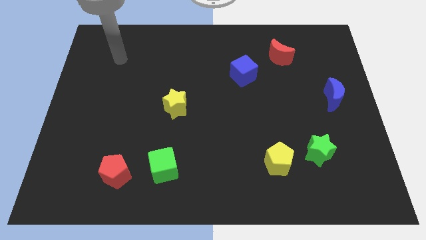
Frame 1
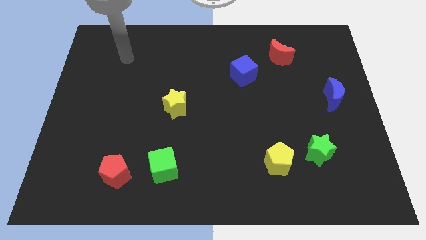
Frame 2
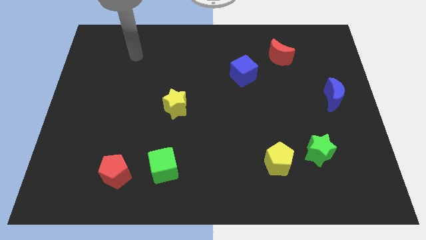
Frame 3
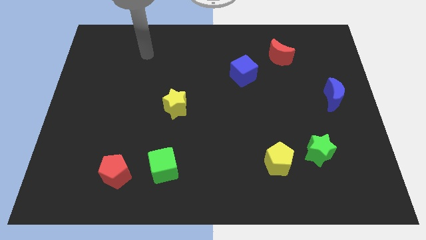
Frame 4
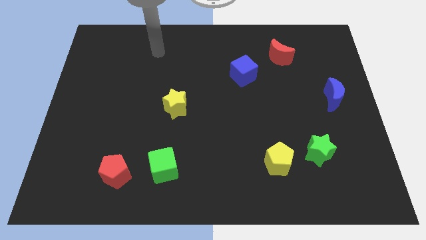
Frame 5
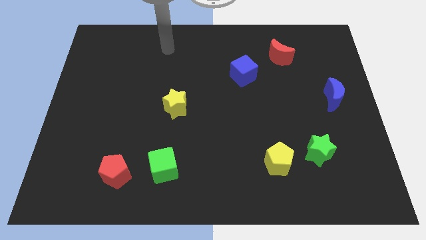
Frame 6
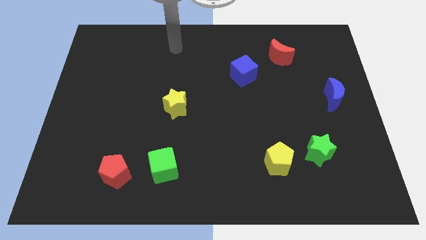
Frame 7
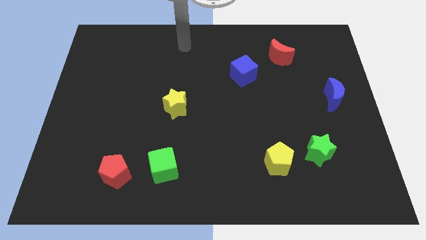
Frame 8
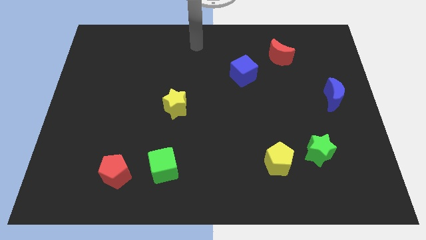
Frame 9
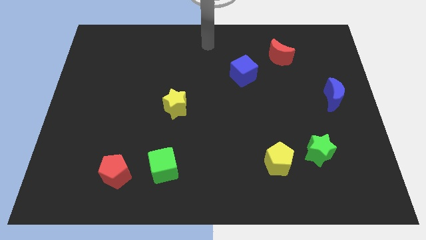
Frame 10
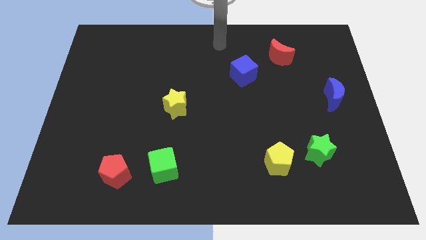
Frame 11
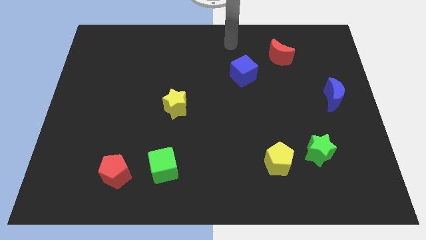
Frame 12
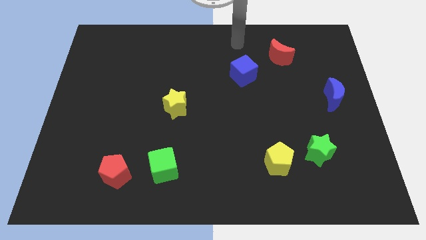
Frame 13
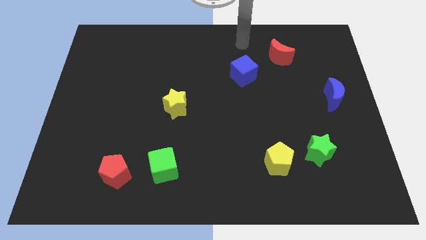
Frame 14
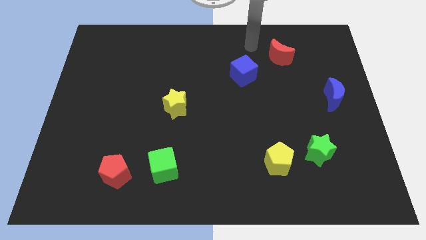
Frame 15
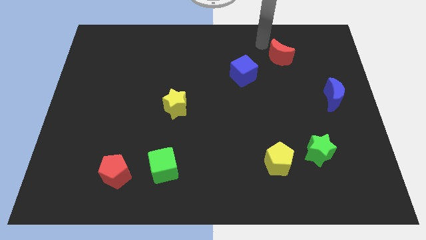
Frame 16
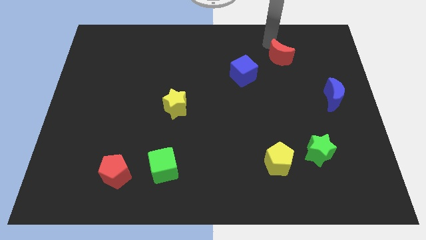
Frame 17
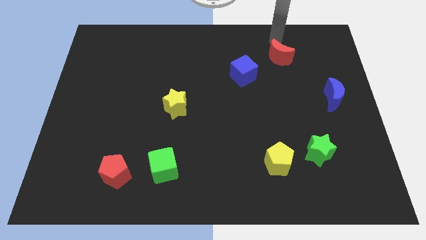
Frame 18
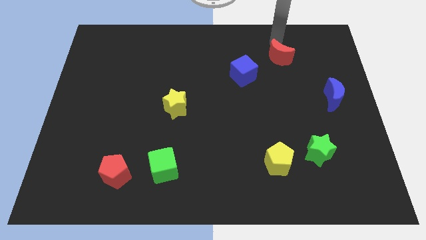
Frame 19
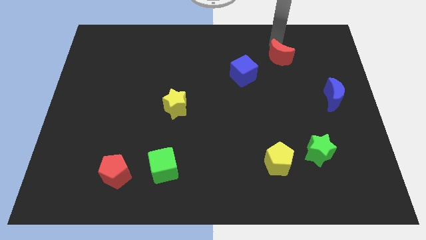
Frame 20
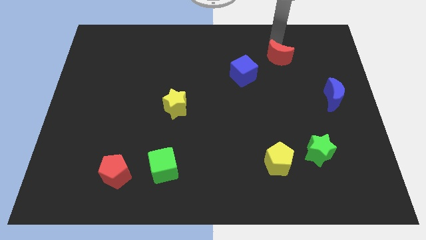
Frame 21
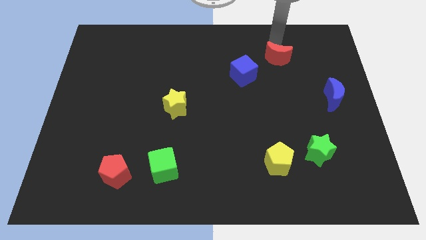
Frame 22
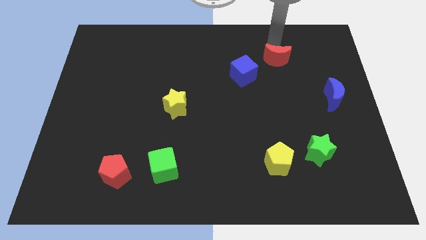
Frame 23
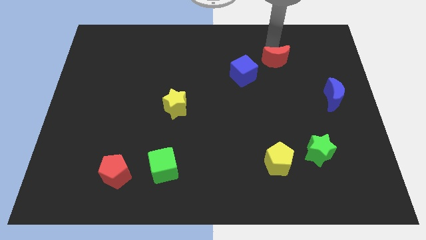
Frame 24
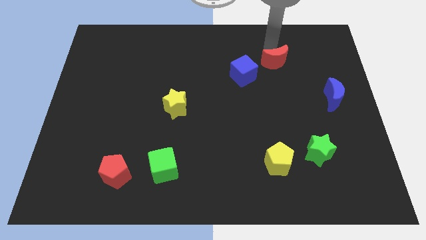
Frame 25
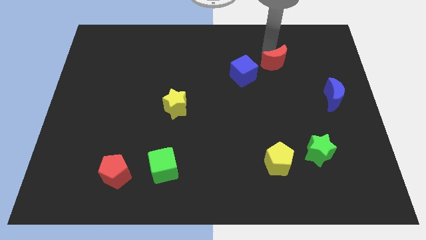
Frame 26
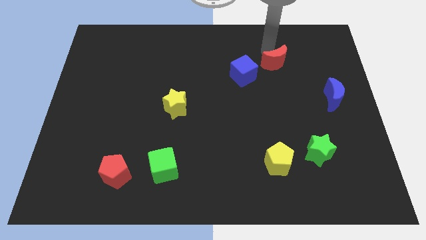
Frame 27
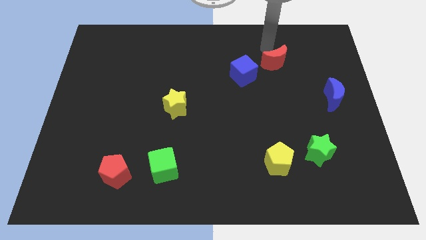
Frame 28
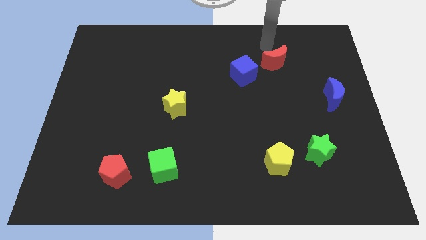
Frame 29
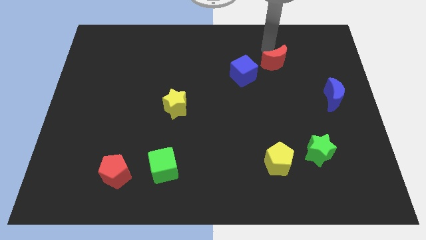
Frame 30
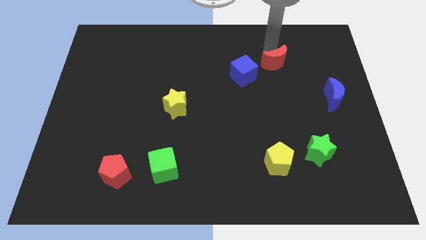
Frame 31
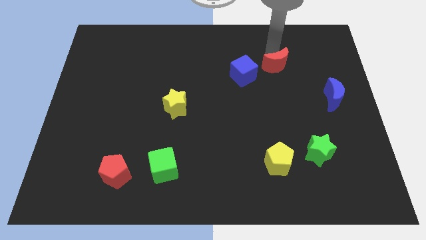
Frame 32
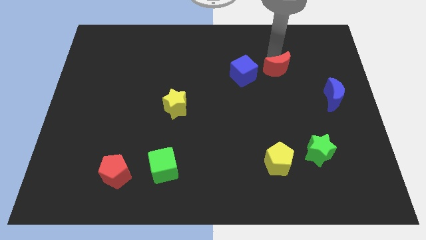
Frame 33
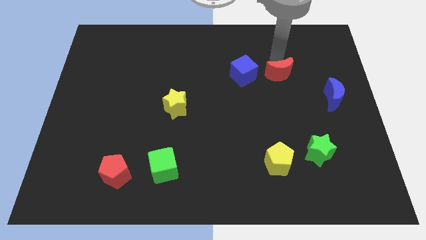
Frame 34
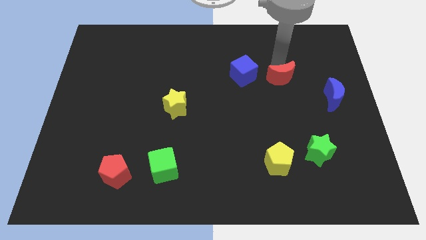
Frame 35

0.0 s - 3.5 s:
slightly move the red moon downwards

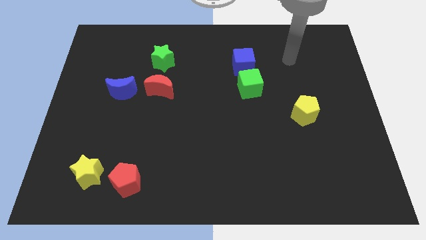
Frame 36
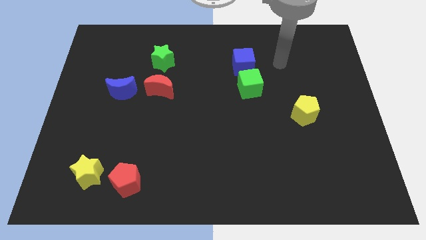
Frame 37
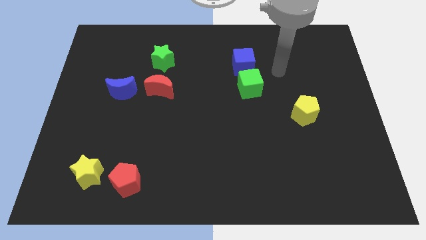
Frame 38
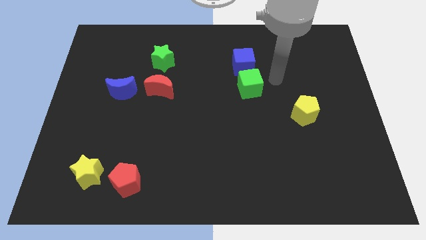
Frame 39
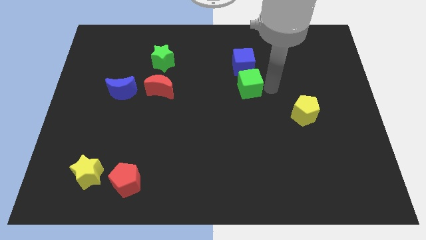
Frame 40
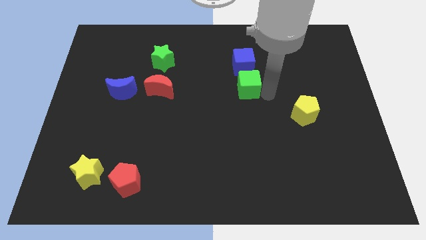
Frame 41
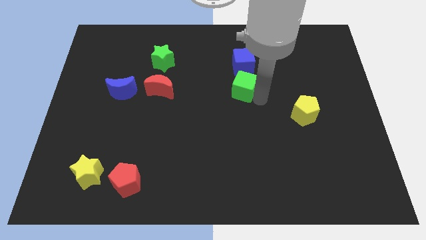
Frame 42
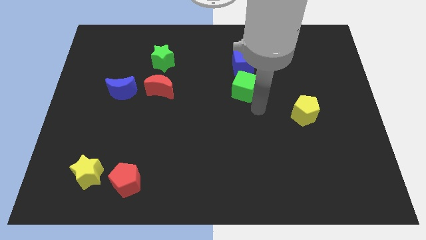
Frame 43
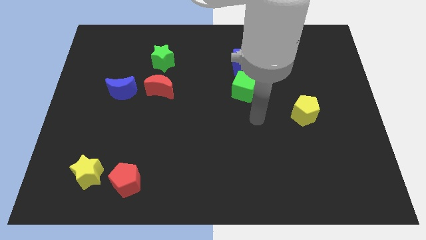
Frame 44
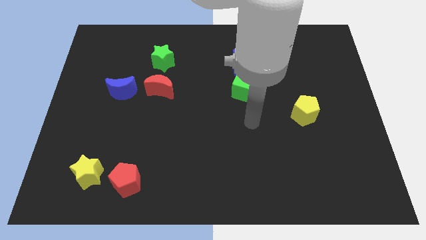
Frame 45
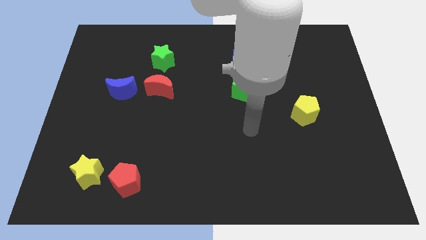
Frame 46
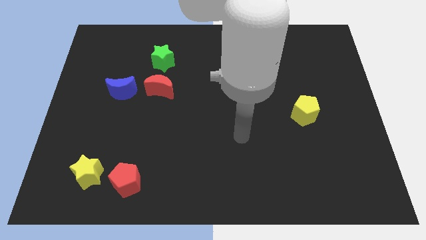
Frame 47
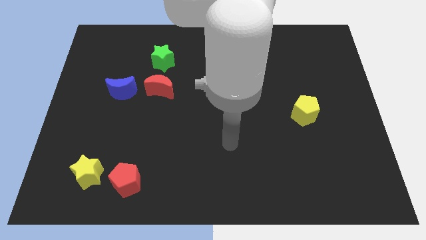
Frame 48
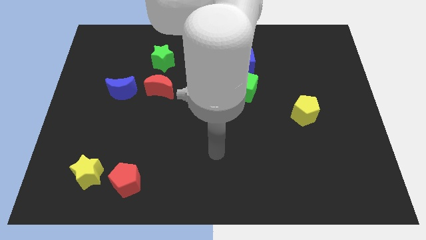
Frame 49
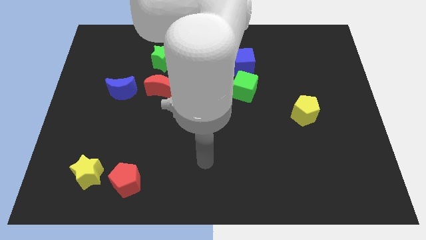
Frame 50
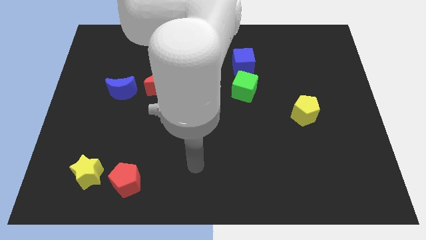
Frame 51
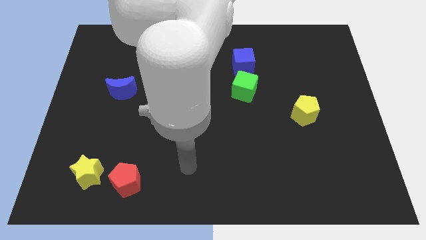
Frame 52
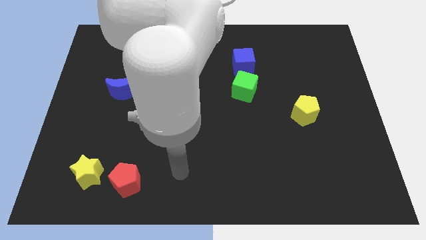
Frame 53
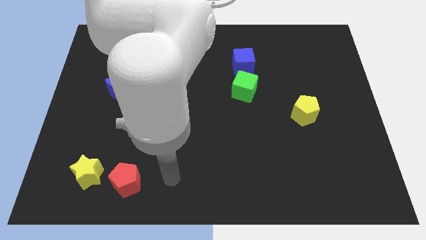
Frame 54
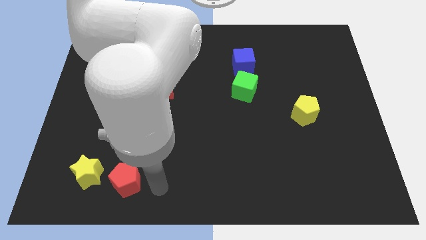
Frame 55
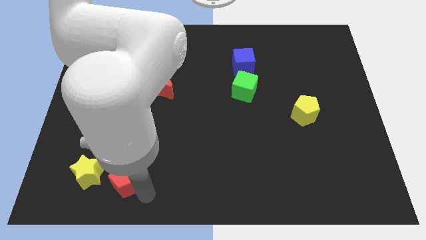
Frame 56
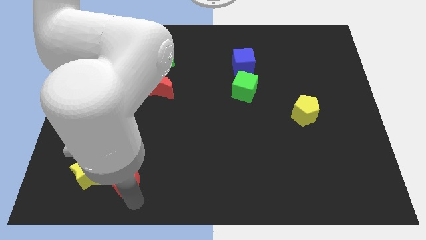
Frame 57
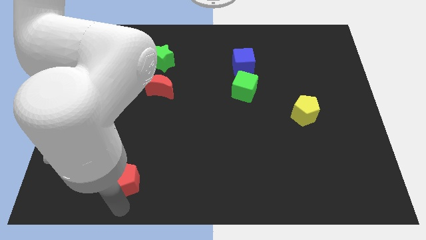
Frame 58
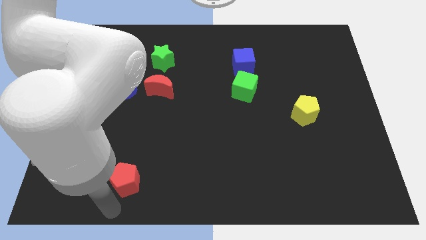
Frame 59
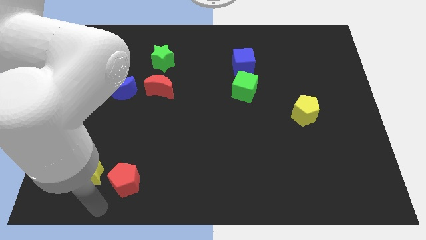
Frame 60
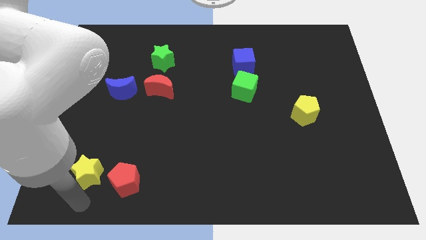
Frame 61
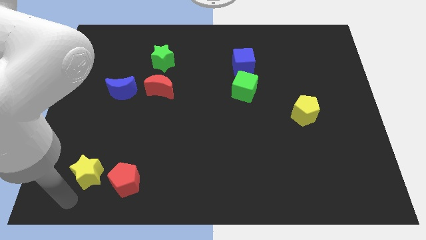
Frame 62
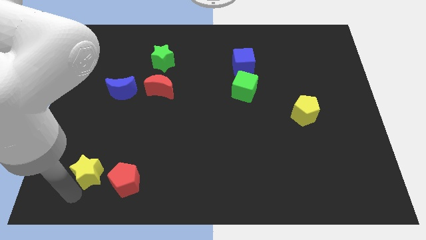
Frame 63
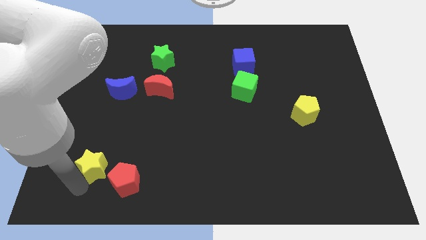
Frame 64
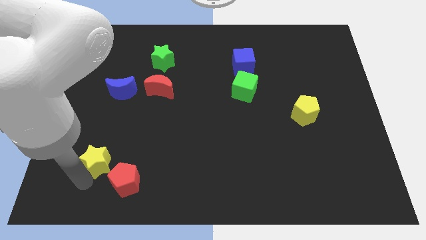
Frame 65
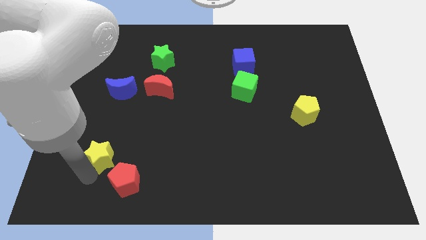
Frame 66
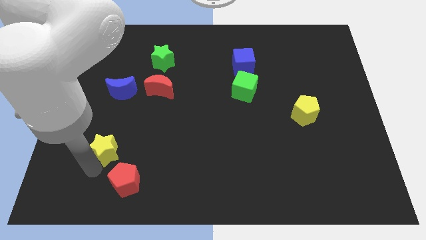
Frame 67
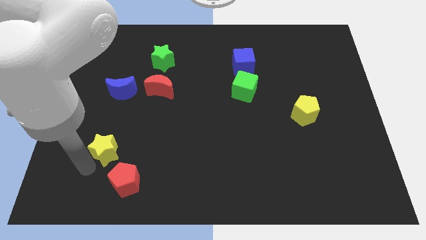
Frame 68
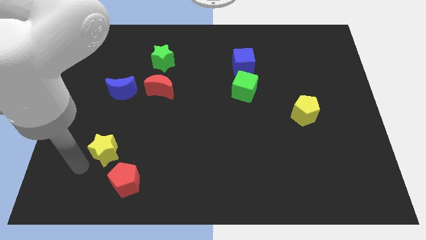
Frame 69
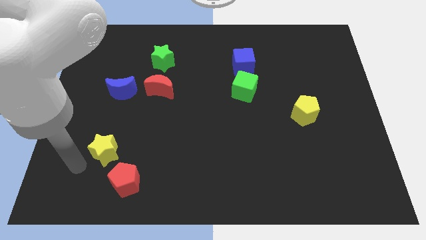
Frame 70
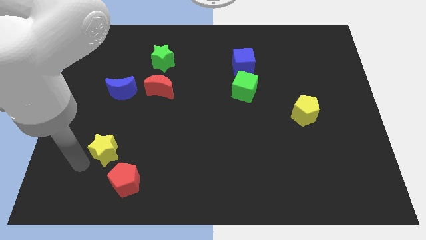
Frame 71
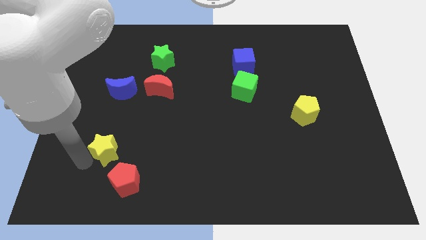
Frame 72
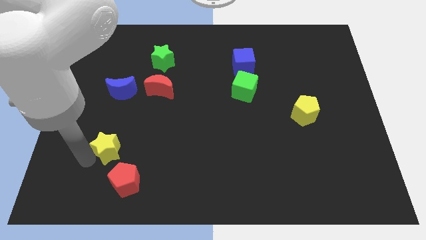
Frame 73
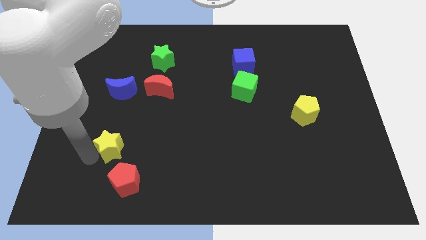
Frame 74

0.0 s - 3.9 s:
push the yellow star upwards and to the right a bit

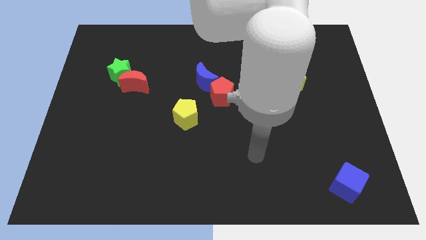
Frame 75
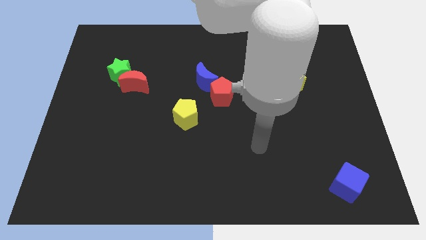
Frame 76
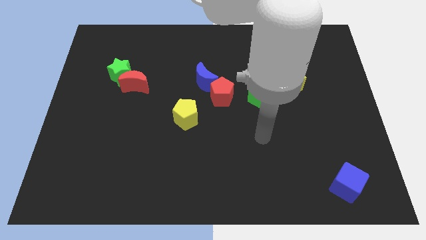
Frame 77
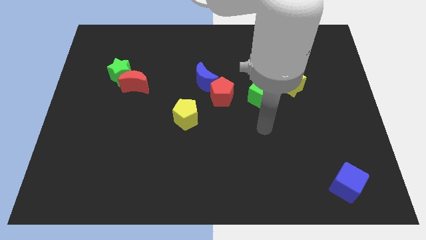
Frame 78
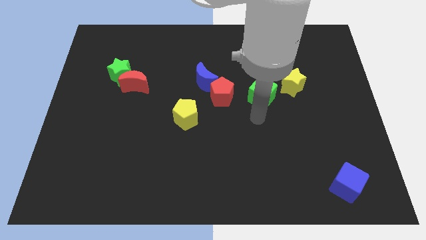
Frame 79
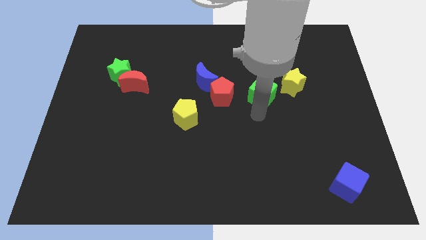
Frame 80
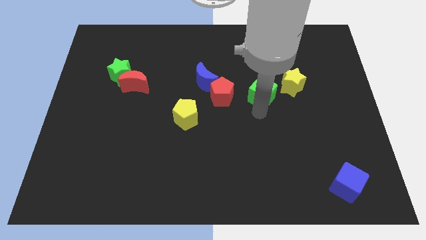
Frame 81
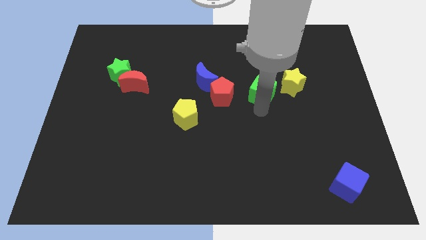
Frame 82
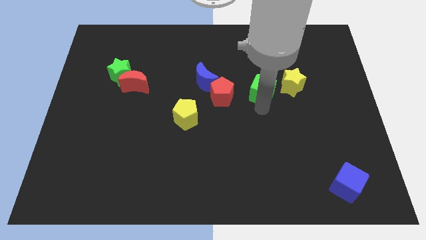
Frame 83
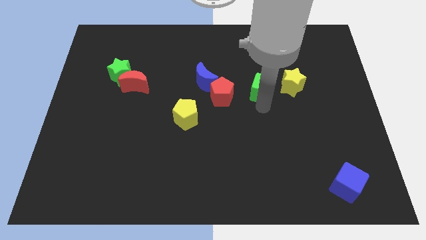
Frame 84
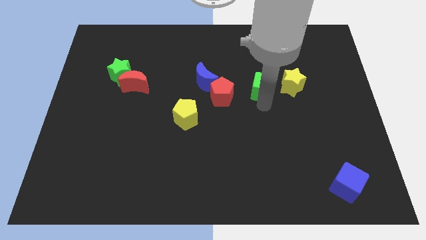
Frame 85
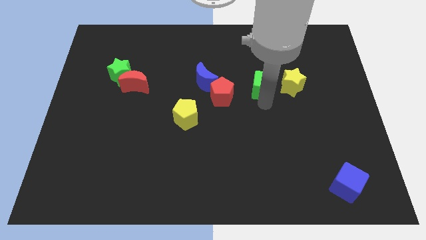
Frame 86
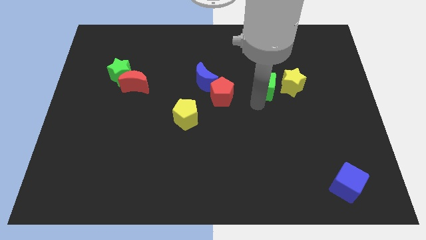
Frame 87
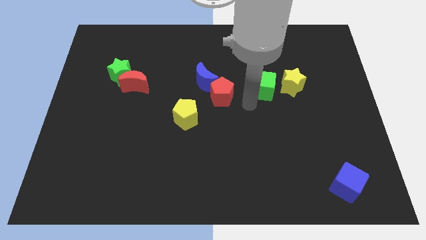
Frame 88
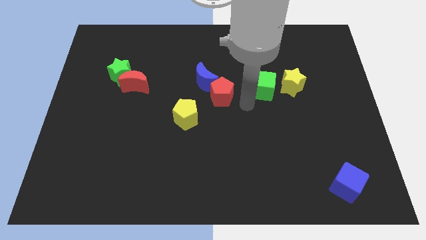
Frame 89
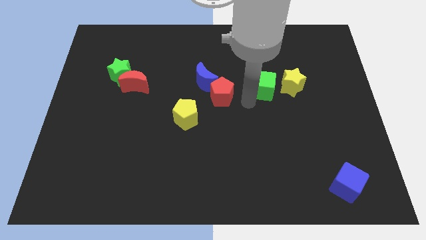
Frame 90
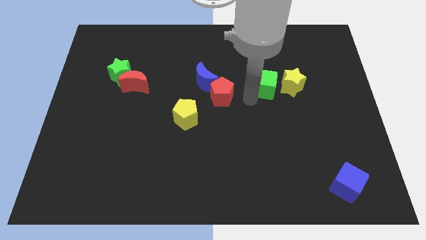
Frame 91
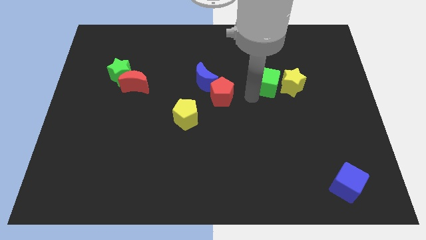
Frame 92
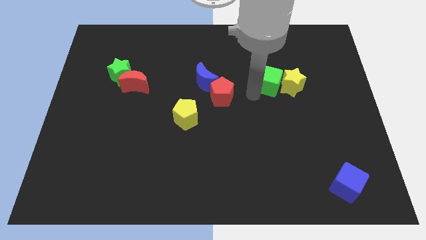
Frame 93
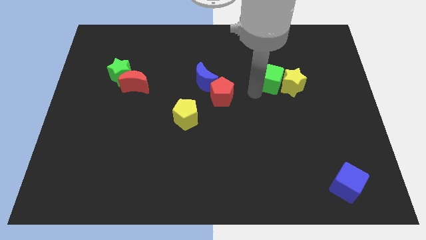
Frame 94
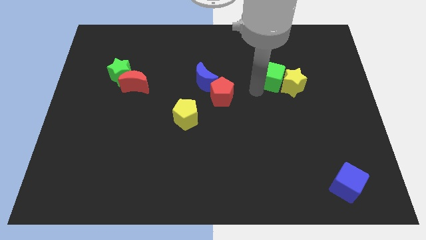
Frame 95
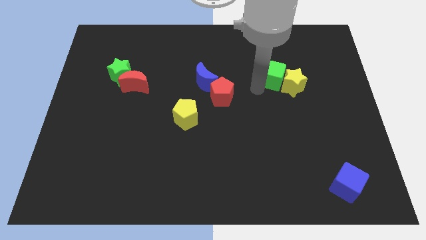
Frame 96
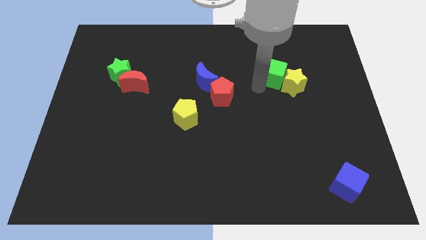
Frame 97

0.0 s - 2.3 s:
push the green cube a little up and then right
